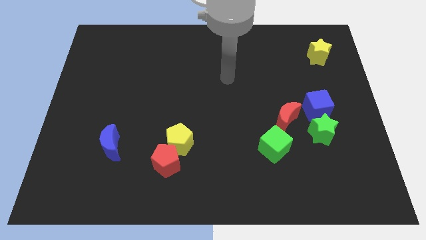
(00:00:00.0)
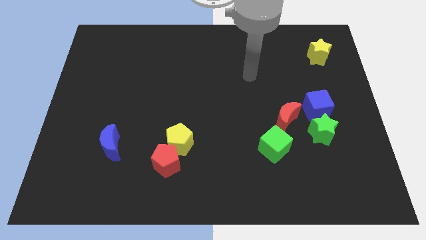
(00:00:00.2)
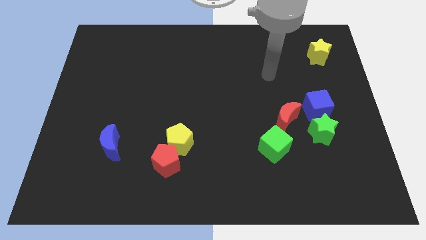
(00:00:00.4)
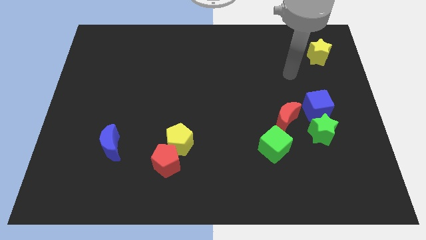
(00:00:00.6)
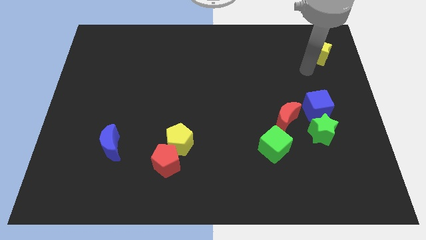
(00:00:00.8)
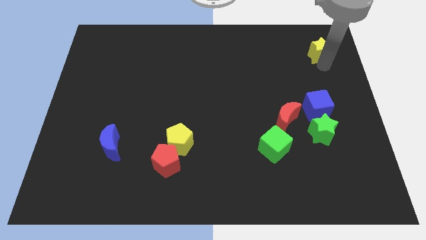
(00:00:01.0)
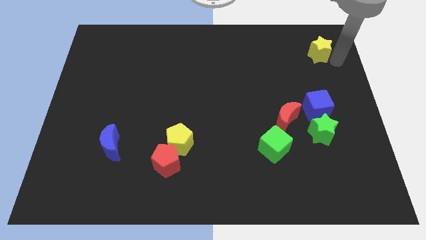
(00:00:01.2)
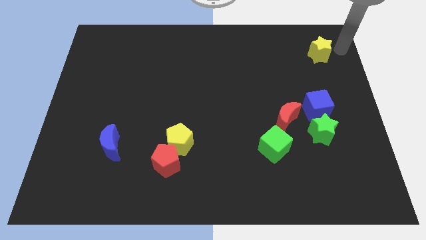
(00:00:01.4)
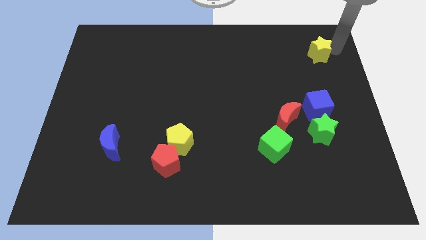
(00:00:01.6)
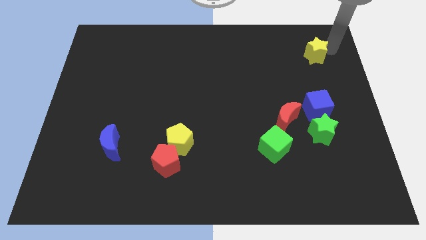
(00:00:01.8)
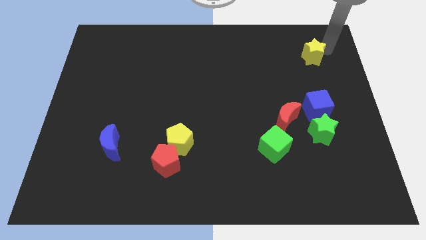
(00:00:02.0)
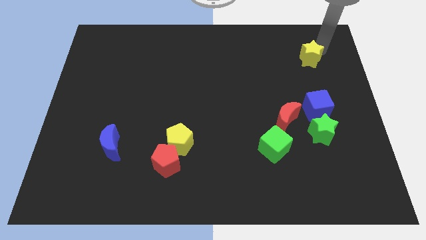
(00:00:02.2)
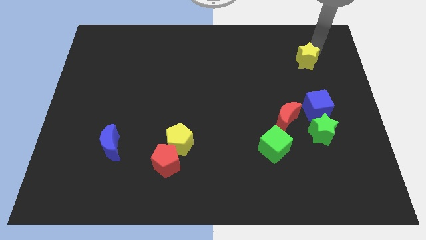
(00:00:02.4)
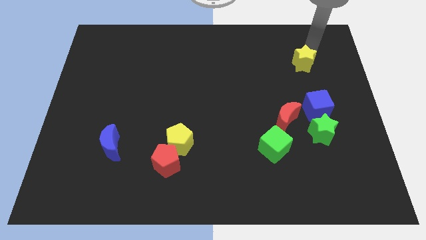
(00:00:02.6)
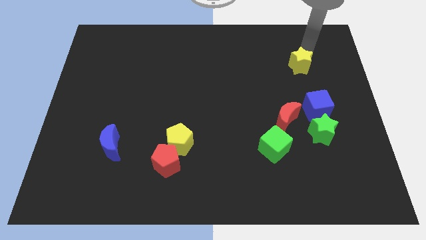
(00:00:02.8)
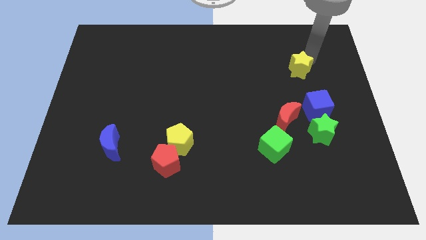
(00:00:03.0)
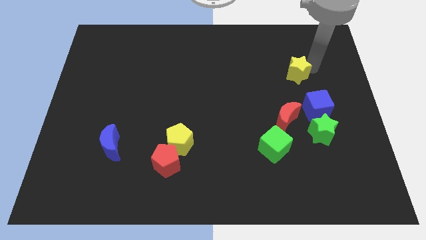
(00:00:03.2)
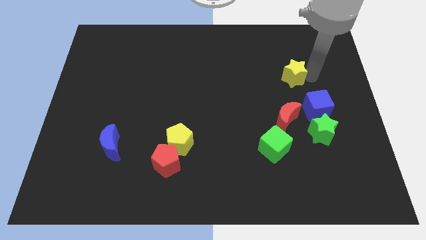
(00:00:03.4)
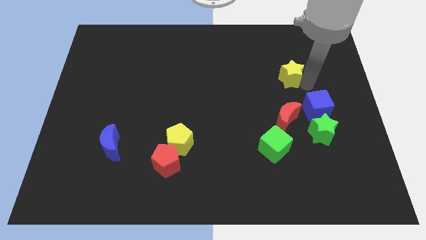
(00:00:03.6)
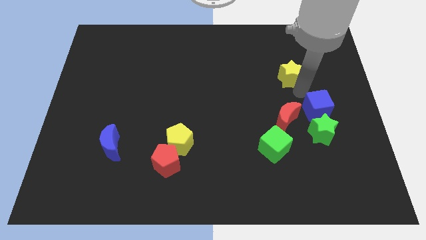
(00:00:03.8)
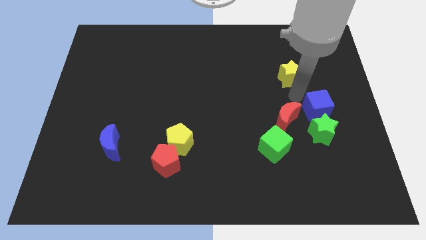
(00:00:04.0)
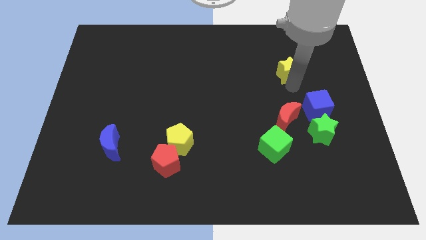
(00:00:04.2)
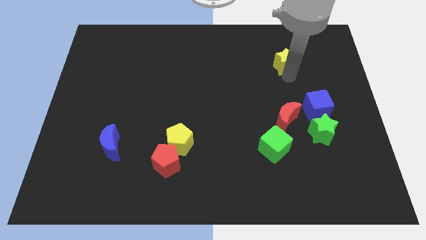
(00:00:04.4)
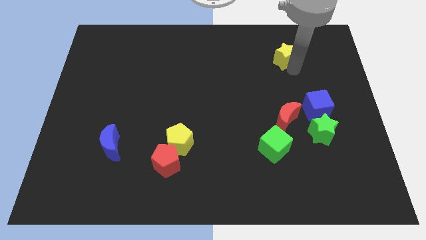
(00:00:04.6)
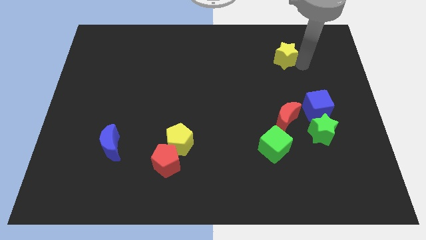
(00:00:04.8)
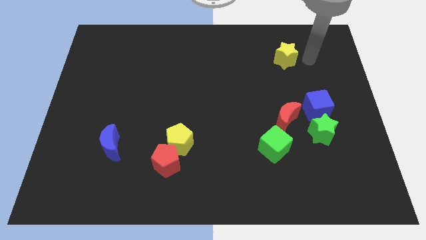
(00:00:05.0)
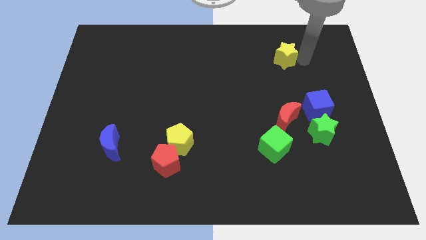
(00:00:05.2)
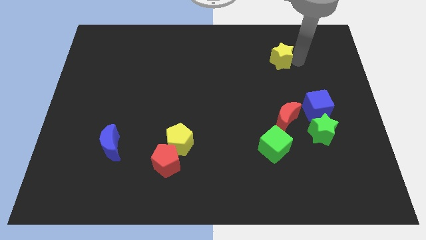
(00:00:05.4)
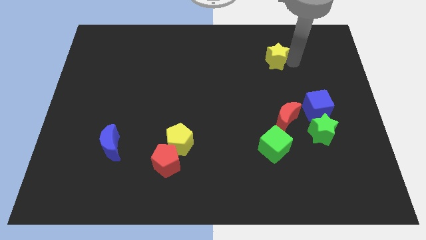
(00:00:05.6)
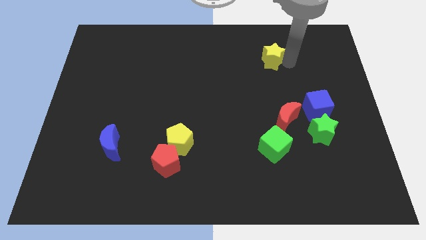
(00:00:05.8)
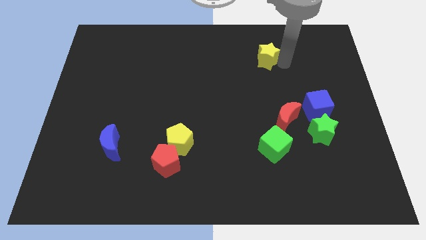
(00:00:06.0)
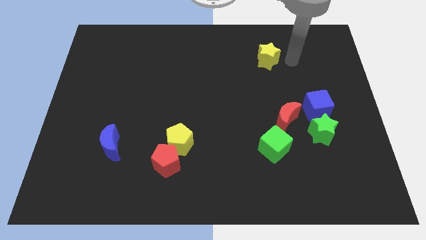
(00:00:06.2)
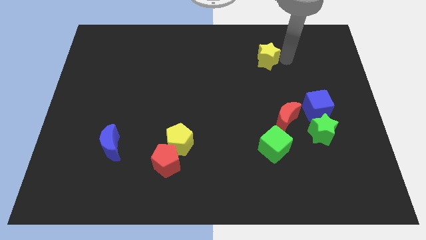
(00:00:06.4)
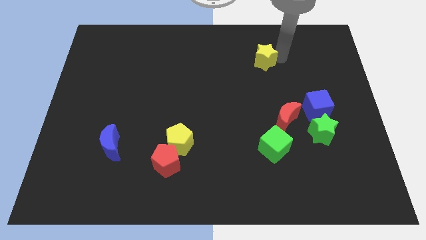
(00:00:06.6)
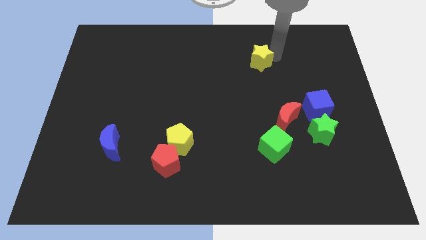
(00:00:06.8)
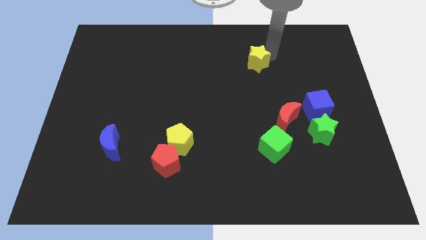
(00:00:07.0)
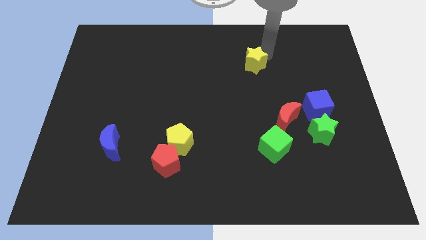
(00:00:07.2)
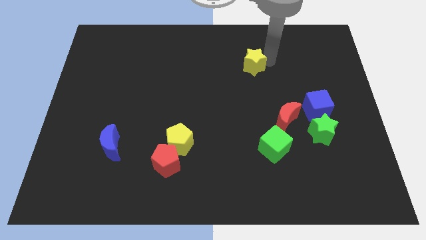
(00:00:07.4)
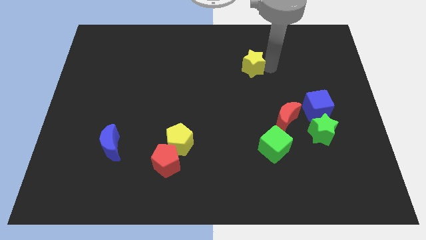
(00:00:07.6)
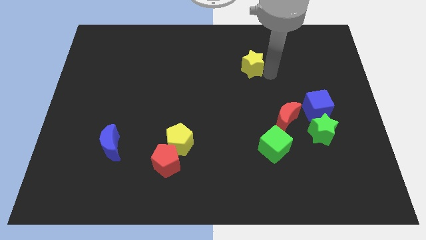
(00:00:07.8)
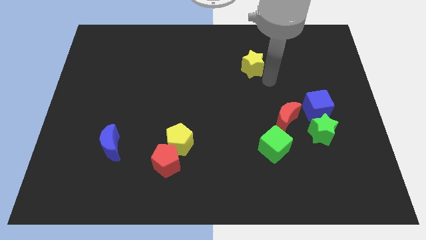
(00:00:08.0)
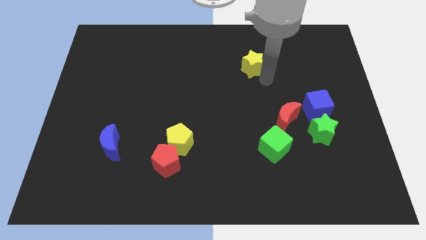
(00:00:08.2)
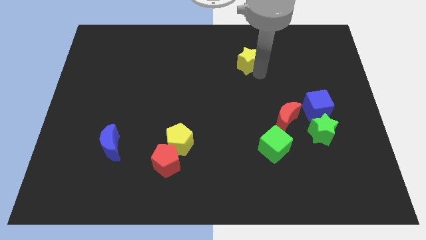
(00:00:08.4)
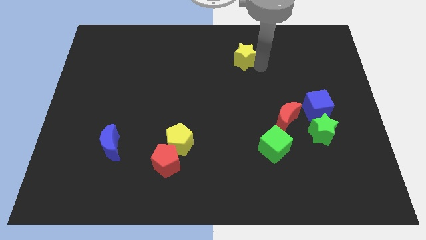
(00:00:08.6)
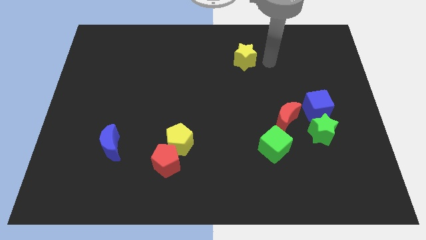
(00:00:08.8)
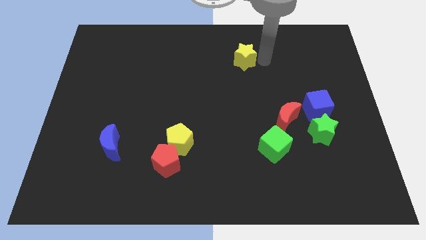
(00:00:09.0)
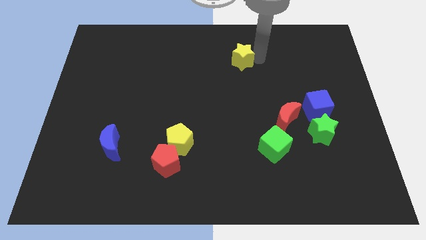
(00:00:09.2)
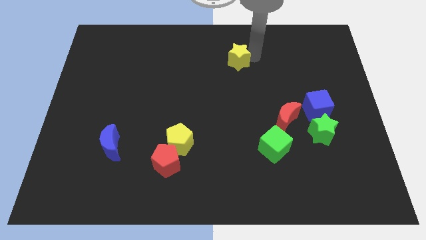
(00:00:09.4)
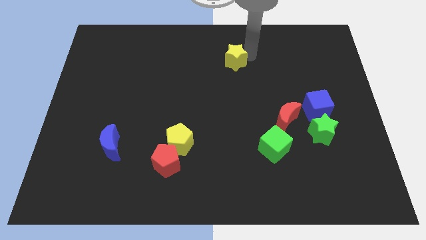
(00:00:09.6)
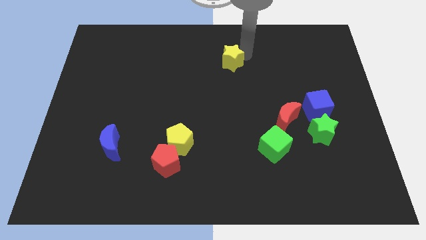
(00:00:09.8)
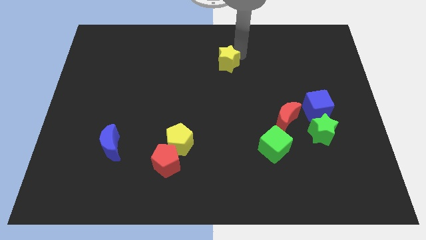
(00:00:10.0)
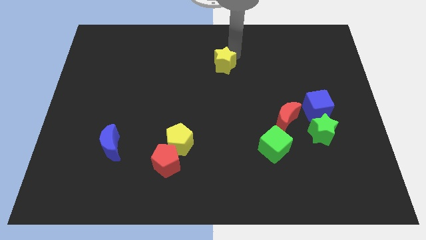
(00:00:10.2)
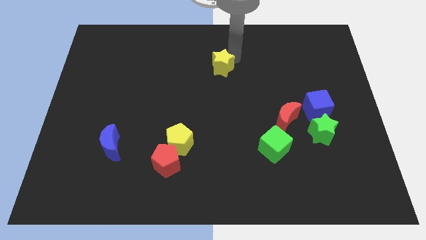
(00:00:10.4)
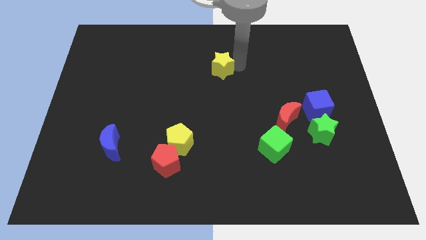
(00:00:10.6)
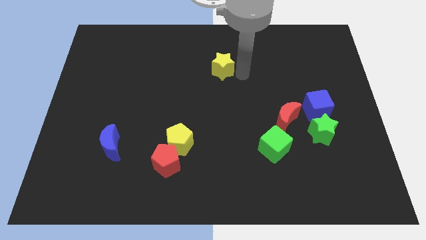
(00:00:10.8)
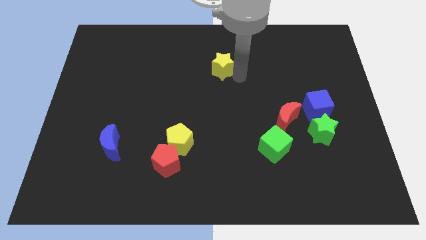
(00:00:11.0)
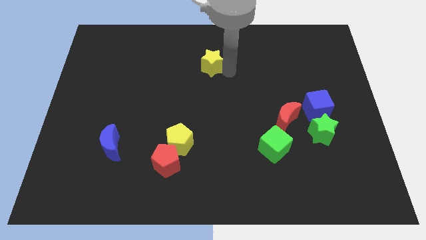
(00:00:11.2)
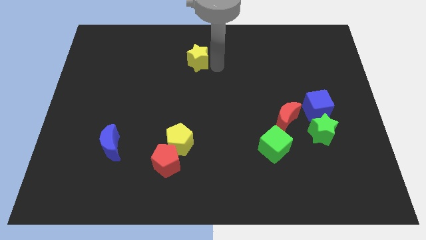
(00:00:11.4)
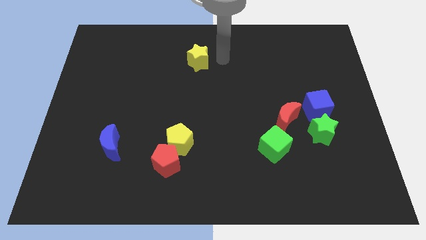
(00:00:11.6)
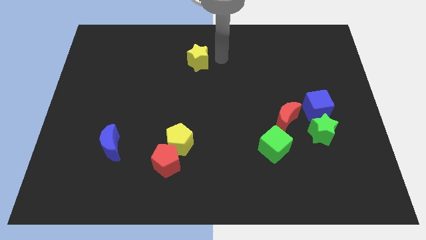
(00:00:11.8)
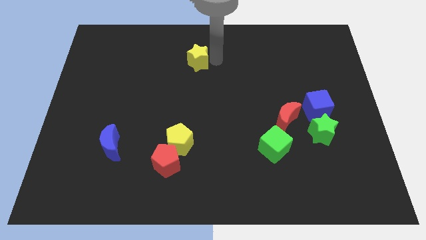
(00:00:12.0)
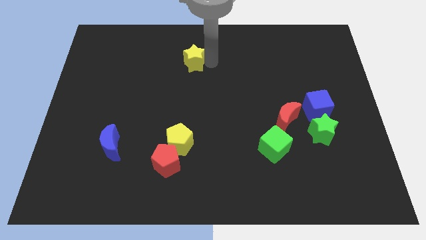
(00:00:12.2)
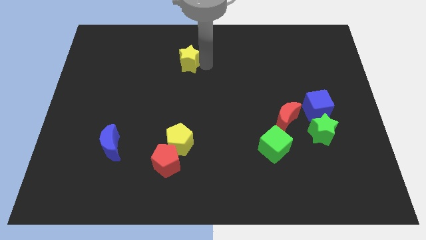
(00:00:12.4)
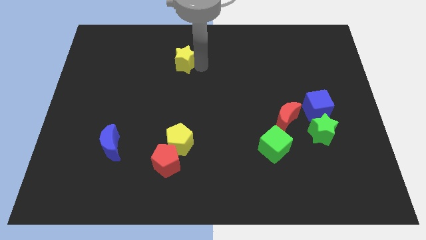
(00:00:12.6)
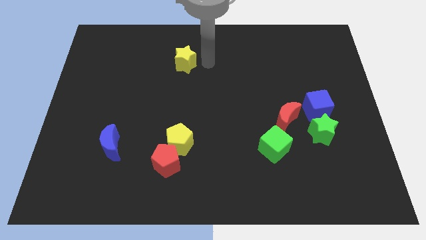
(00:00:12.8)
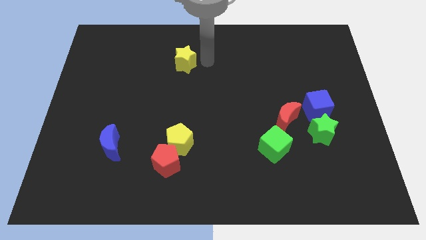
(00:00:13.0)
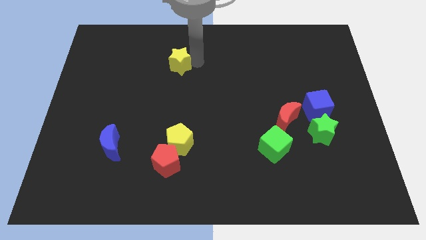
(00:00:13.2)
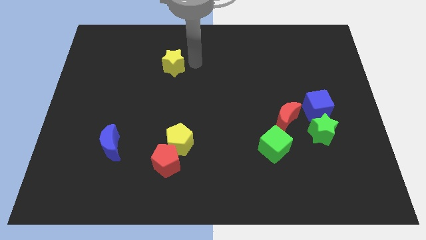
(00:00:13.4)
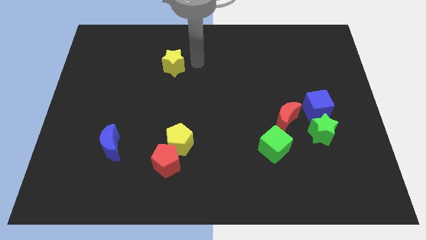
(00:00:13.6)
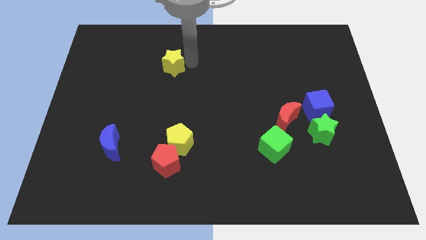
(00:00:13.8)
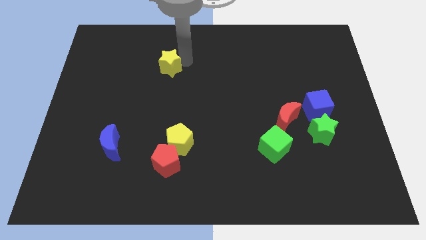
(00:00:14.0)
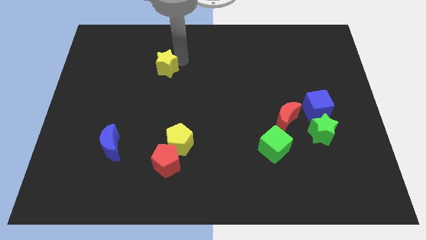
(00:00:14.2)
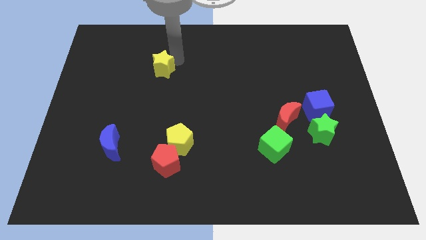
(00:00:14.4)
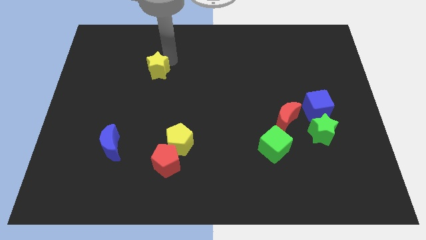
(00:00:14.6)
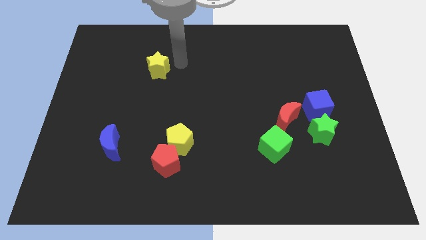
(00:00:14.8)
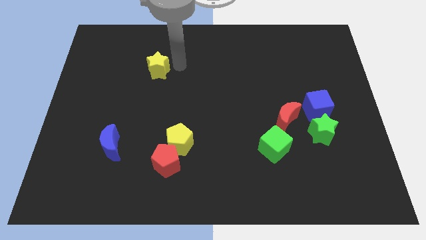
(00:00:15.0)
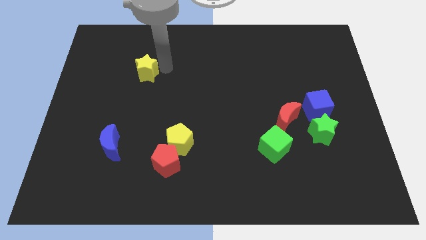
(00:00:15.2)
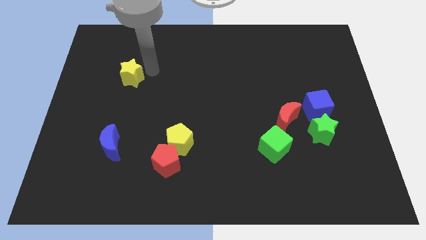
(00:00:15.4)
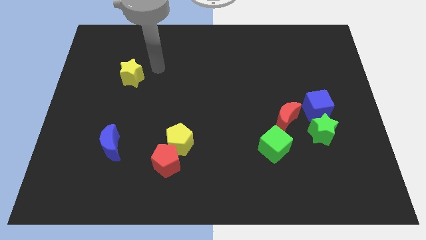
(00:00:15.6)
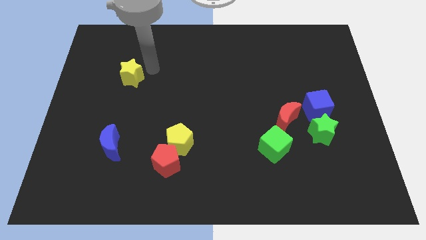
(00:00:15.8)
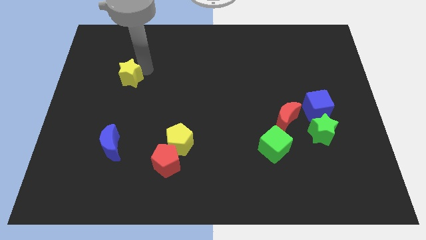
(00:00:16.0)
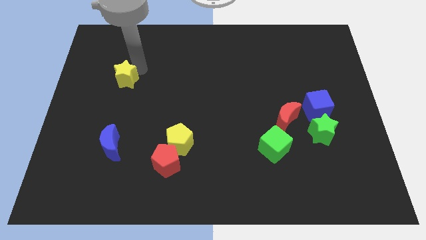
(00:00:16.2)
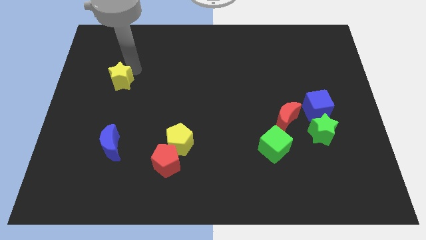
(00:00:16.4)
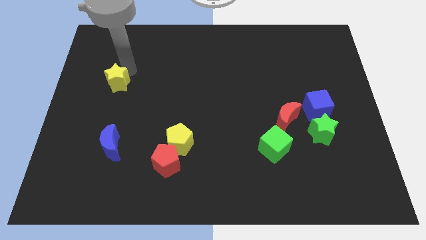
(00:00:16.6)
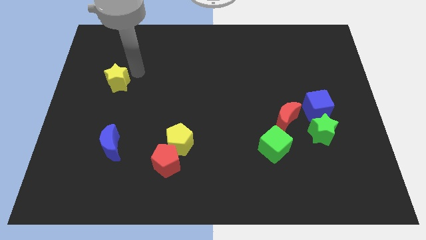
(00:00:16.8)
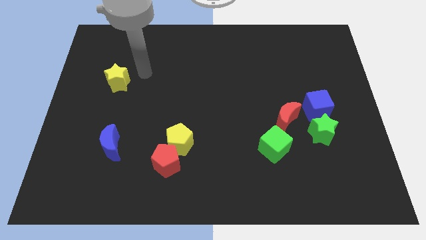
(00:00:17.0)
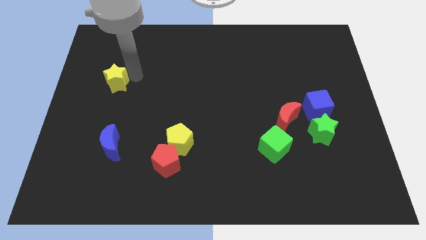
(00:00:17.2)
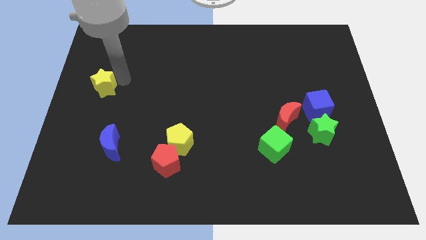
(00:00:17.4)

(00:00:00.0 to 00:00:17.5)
move the yellow star to the left side
